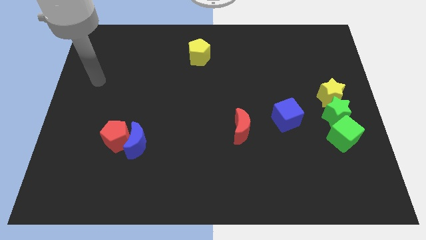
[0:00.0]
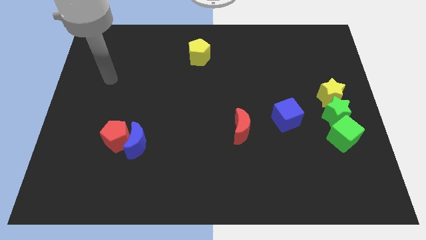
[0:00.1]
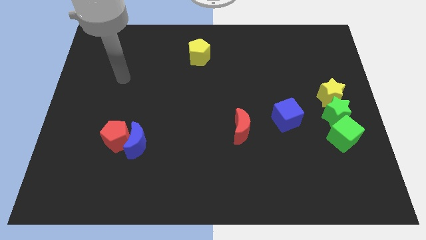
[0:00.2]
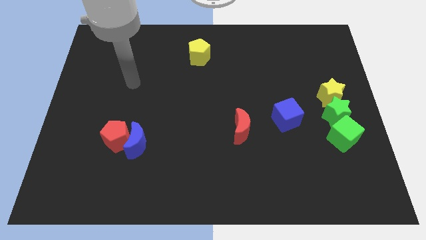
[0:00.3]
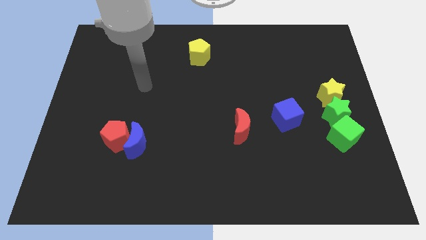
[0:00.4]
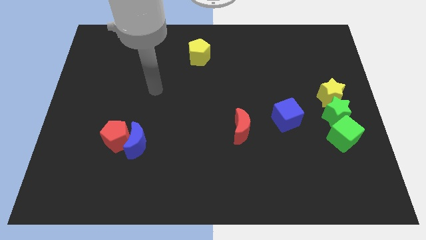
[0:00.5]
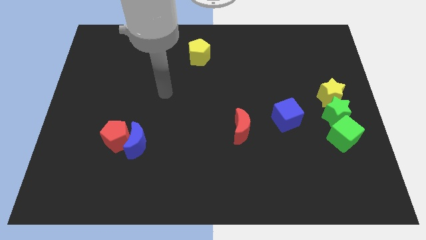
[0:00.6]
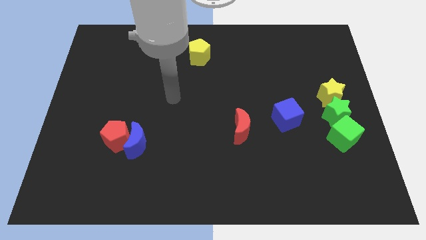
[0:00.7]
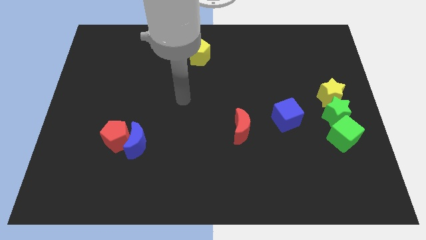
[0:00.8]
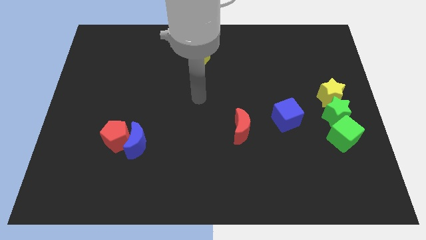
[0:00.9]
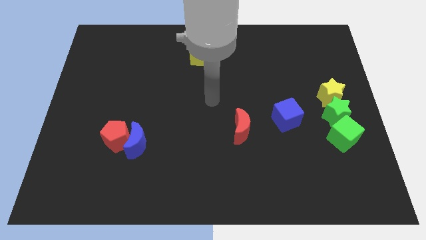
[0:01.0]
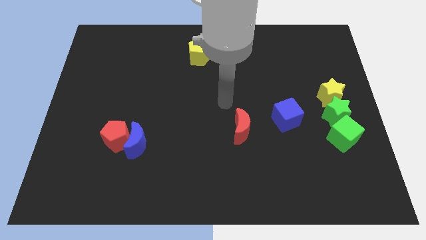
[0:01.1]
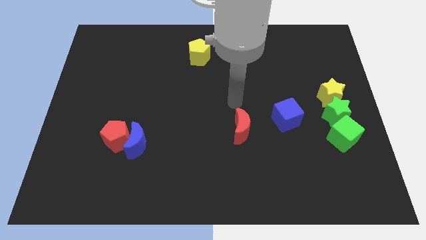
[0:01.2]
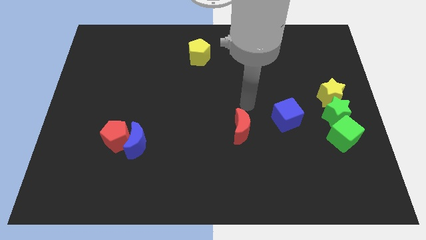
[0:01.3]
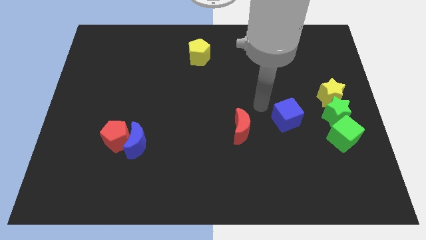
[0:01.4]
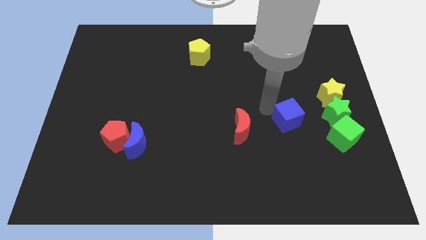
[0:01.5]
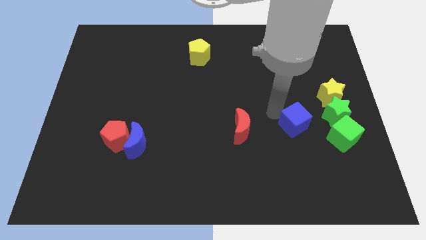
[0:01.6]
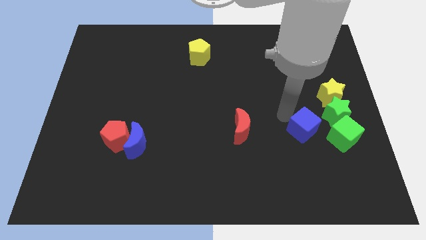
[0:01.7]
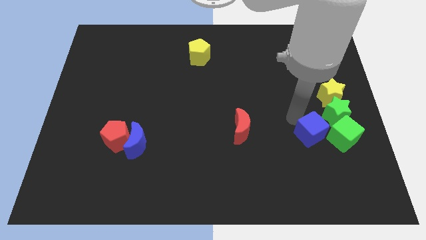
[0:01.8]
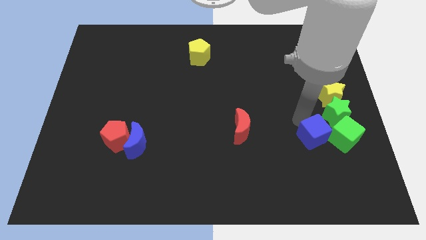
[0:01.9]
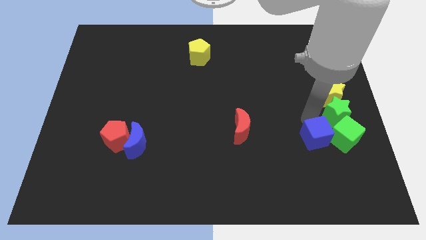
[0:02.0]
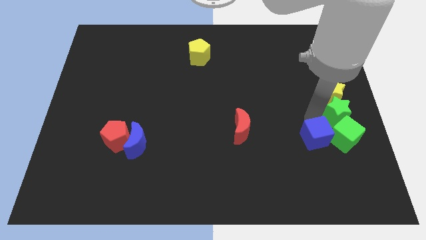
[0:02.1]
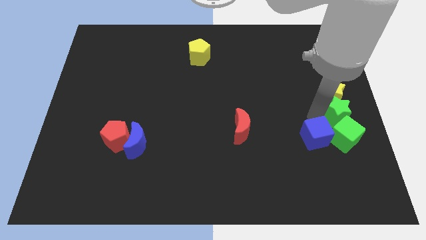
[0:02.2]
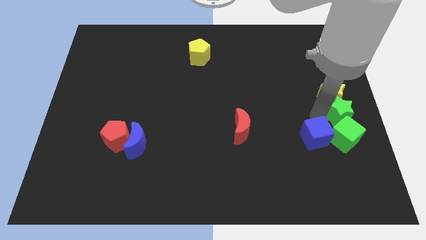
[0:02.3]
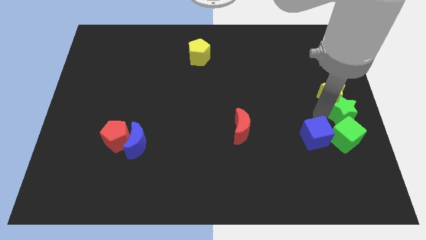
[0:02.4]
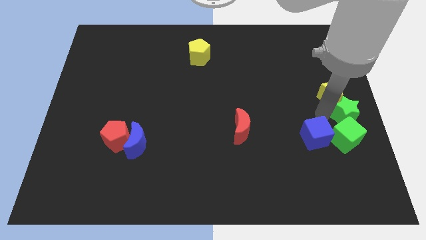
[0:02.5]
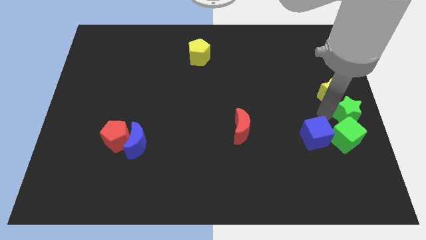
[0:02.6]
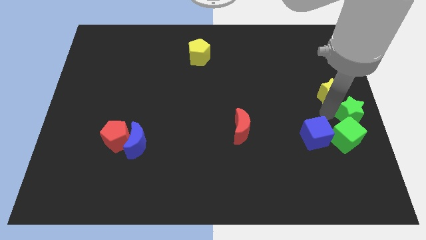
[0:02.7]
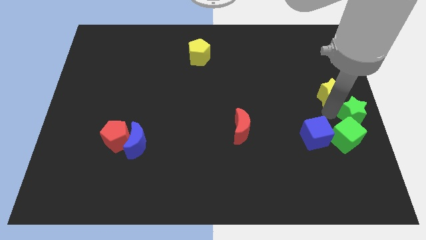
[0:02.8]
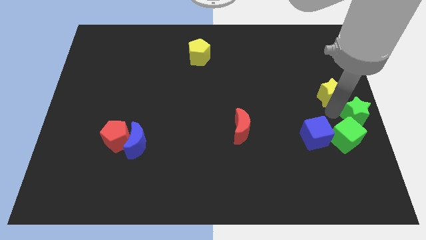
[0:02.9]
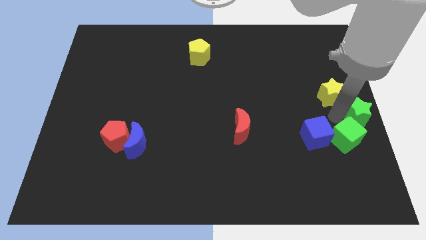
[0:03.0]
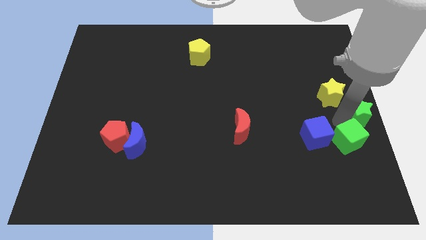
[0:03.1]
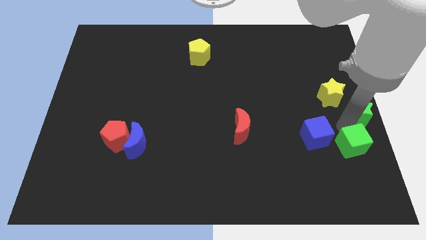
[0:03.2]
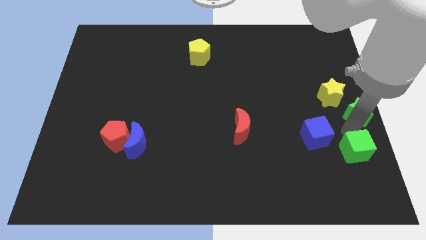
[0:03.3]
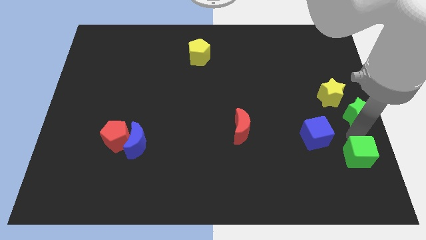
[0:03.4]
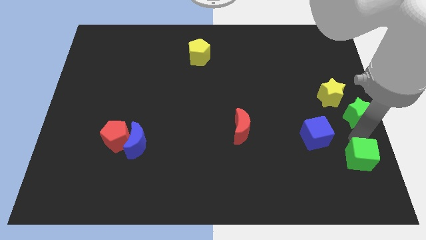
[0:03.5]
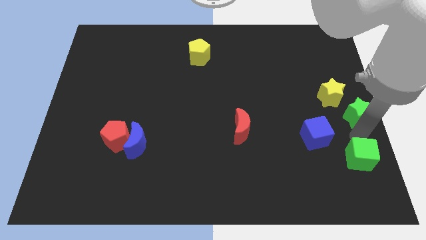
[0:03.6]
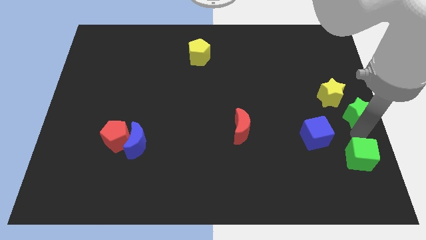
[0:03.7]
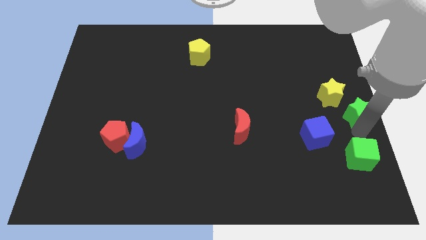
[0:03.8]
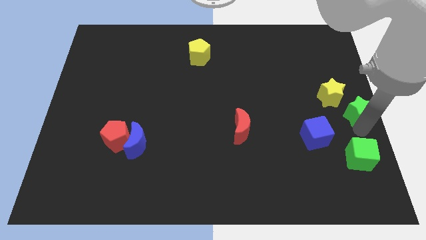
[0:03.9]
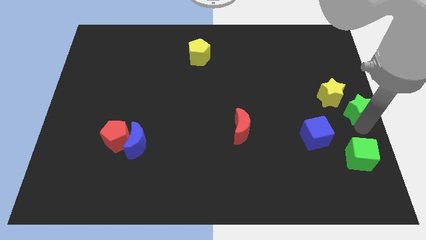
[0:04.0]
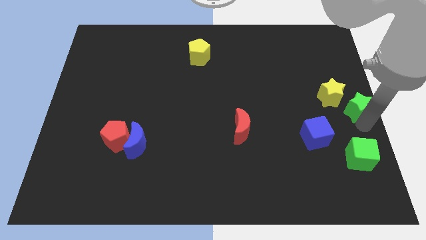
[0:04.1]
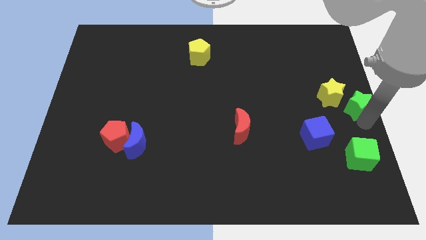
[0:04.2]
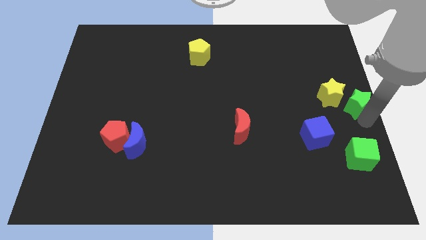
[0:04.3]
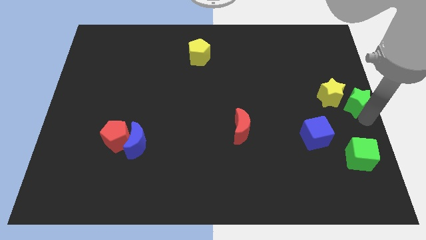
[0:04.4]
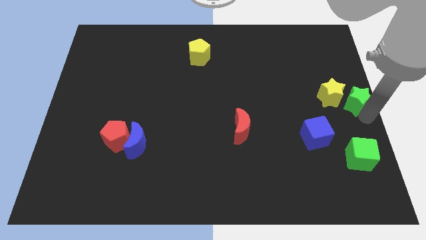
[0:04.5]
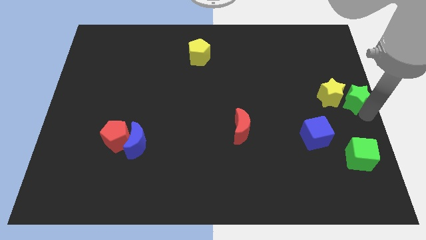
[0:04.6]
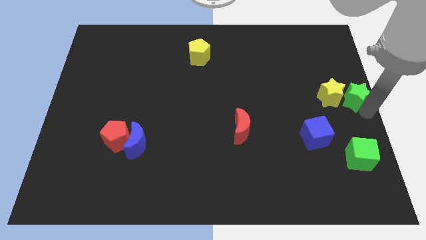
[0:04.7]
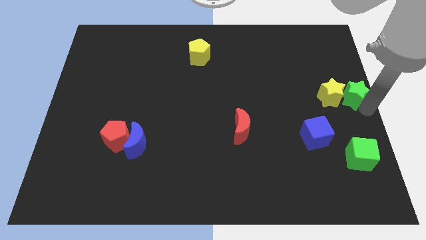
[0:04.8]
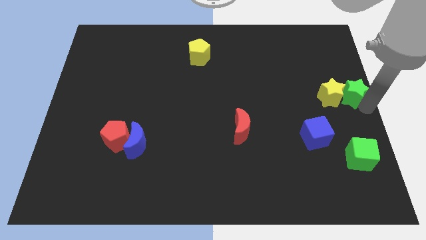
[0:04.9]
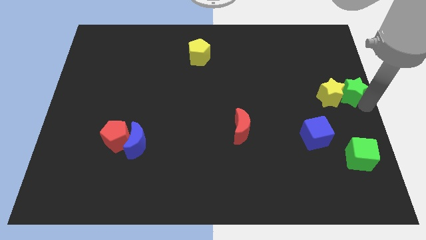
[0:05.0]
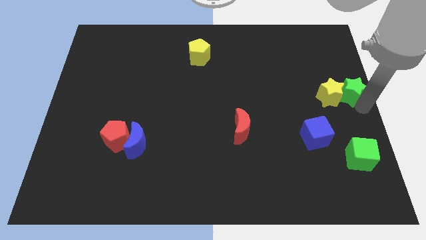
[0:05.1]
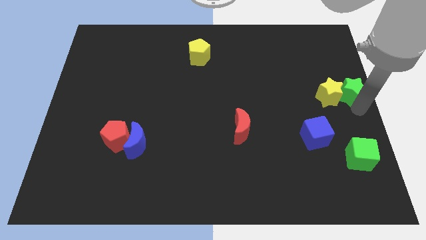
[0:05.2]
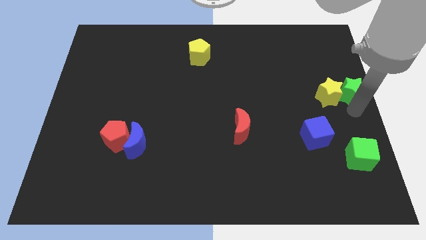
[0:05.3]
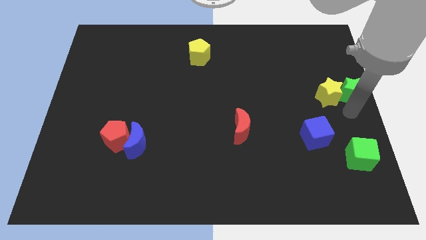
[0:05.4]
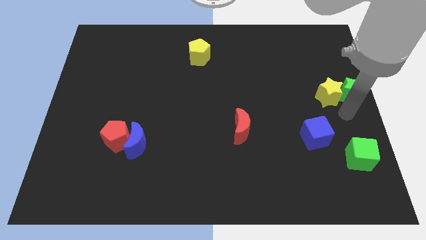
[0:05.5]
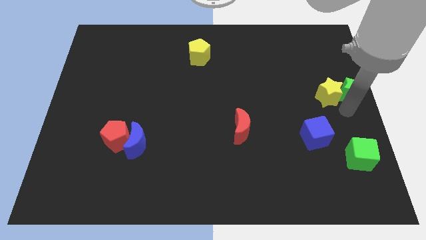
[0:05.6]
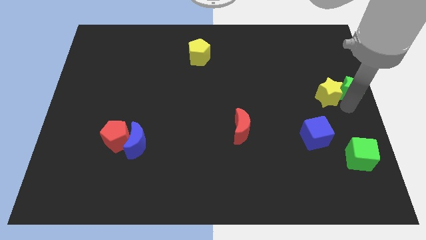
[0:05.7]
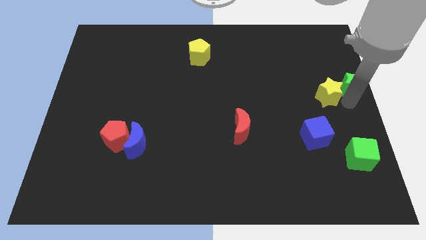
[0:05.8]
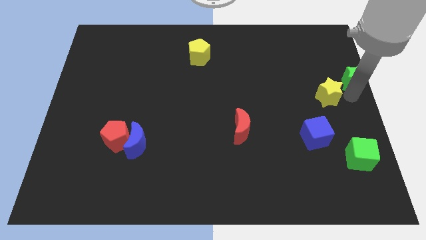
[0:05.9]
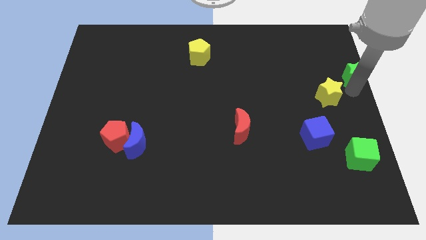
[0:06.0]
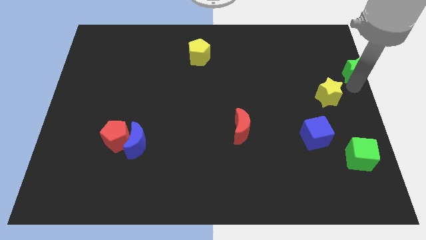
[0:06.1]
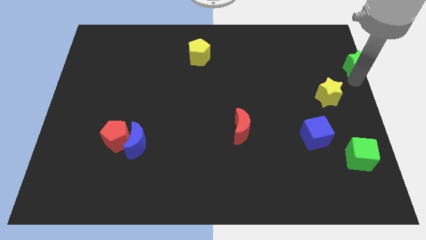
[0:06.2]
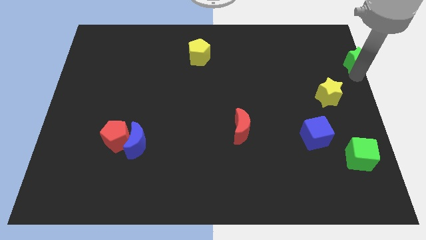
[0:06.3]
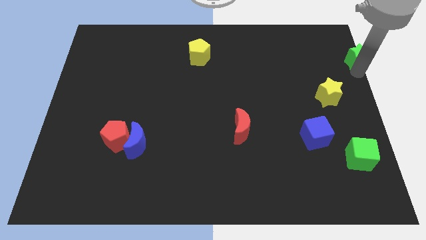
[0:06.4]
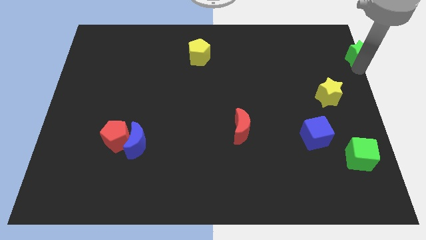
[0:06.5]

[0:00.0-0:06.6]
put the green star to the upper right corner

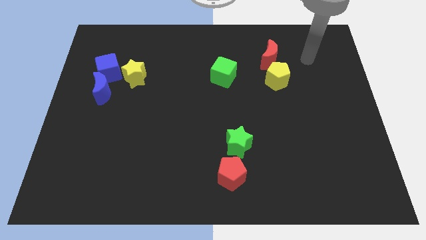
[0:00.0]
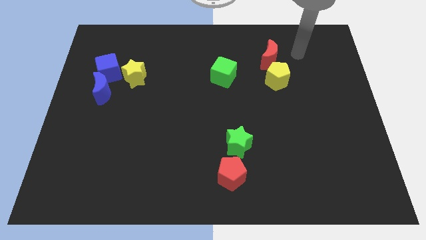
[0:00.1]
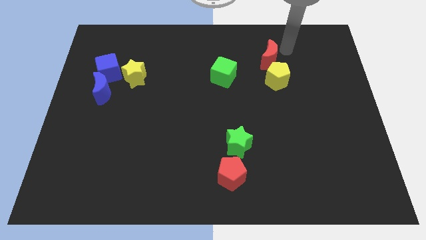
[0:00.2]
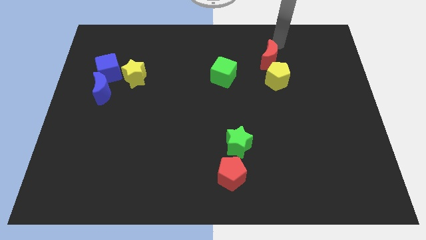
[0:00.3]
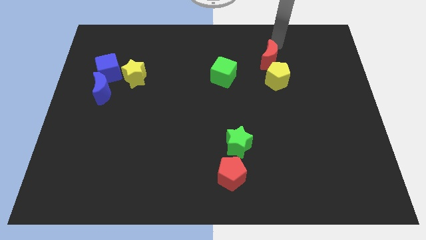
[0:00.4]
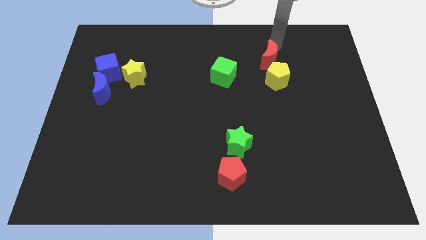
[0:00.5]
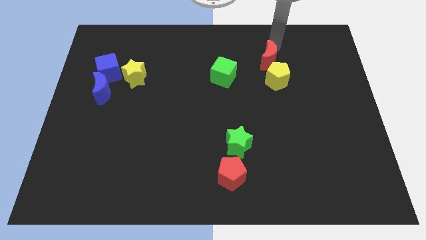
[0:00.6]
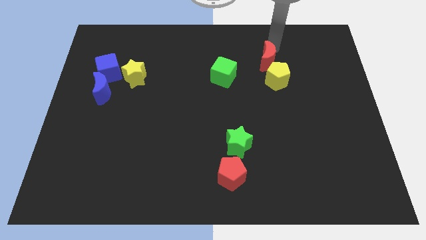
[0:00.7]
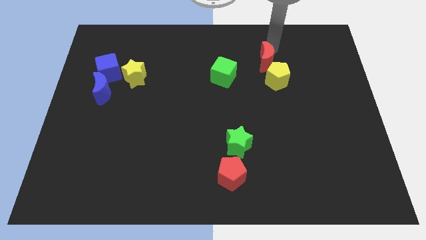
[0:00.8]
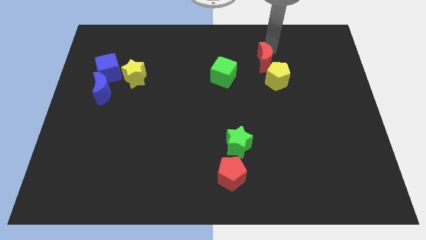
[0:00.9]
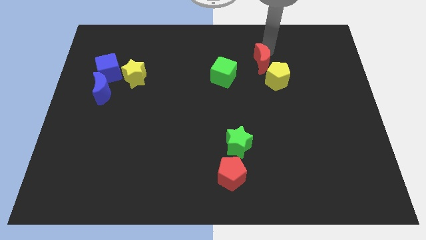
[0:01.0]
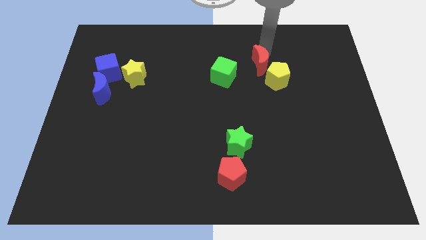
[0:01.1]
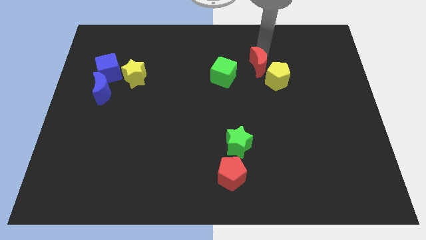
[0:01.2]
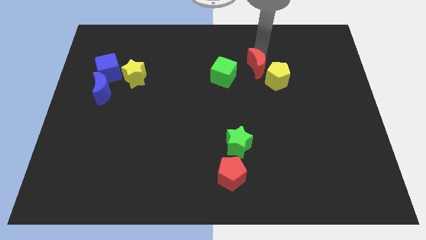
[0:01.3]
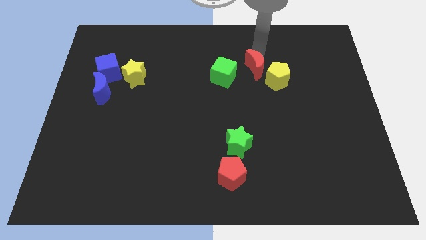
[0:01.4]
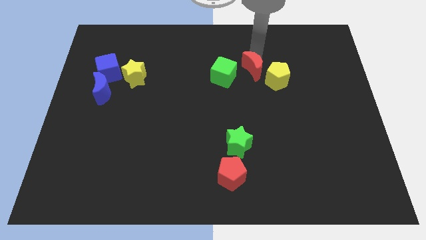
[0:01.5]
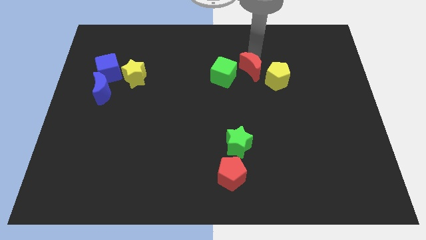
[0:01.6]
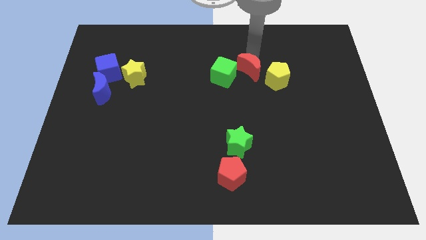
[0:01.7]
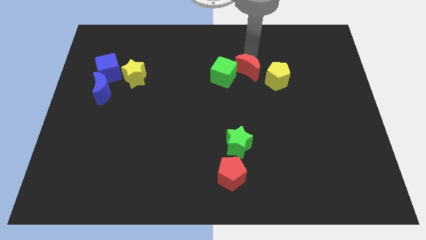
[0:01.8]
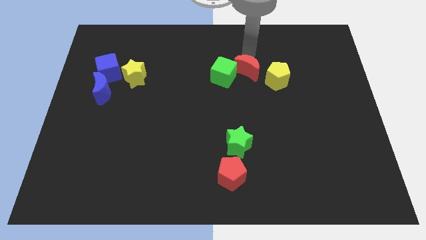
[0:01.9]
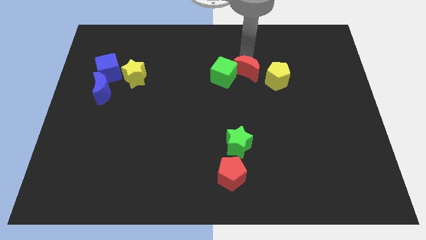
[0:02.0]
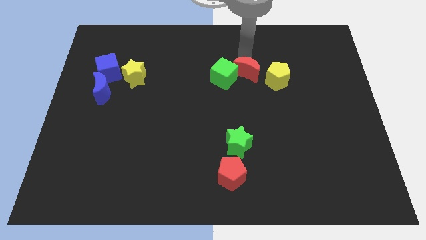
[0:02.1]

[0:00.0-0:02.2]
push the red moon to the center of the board
